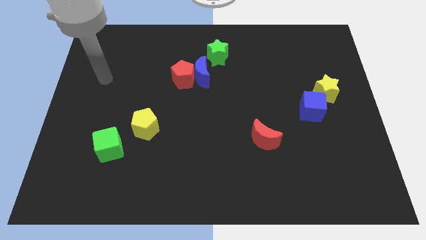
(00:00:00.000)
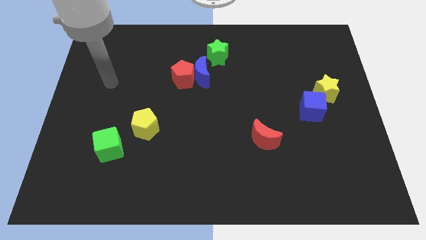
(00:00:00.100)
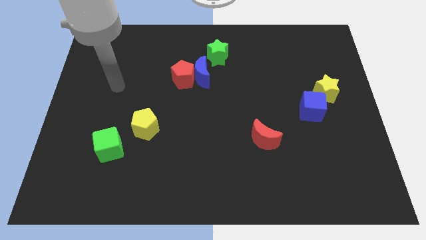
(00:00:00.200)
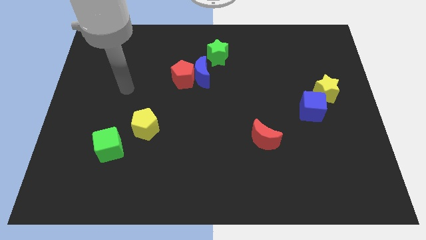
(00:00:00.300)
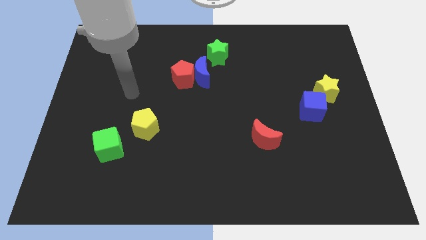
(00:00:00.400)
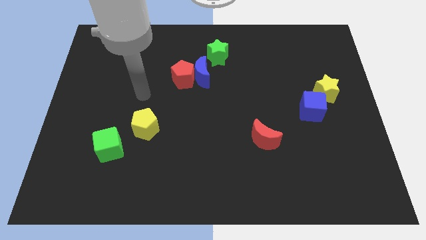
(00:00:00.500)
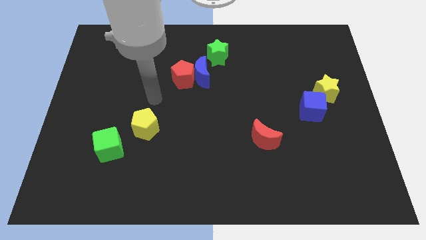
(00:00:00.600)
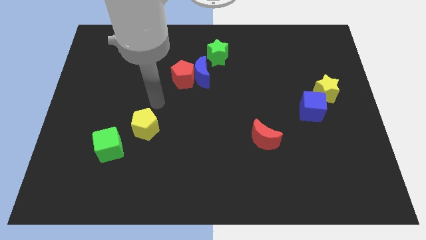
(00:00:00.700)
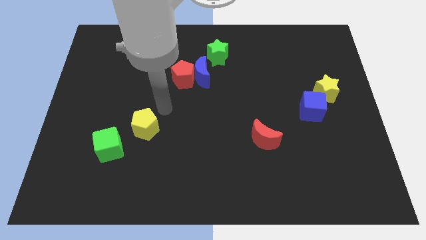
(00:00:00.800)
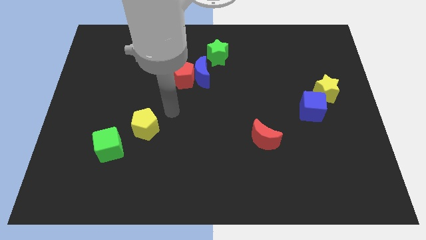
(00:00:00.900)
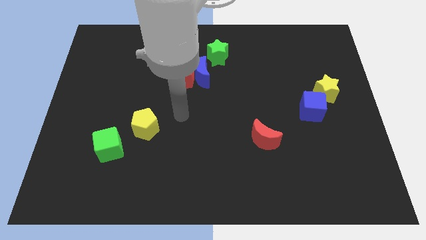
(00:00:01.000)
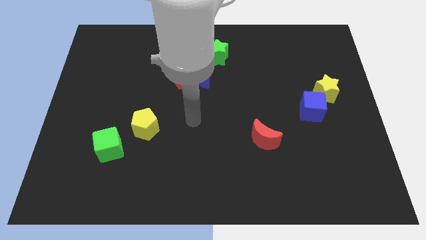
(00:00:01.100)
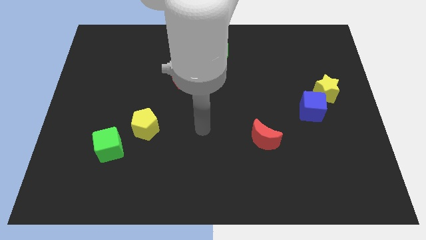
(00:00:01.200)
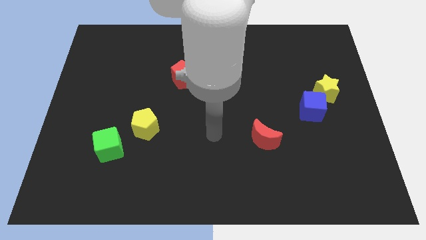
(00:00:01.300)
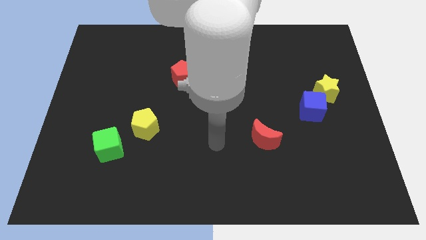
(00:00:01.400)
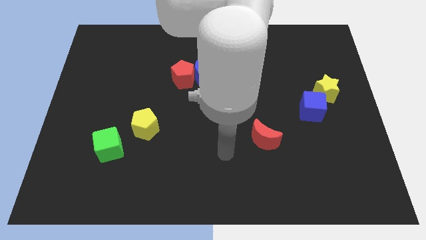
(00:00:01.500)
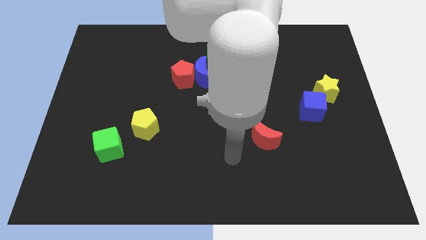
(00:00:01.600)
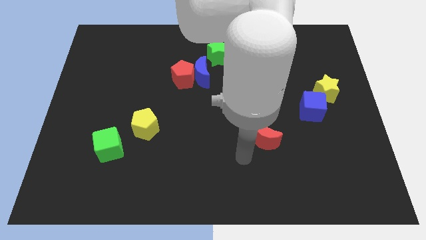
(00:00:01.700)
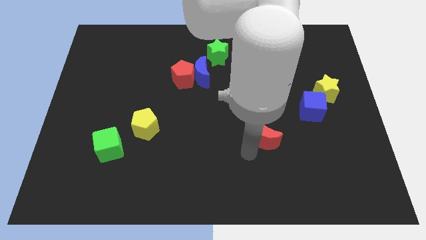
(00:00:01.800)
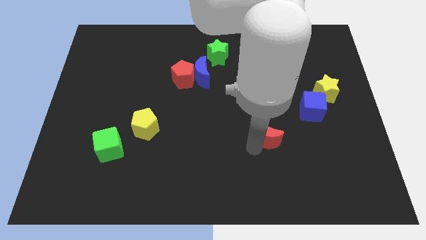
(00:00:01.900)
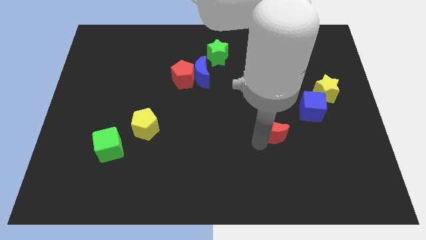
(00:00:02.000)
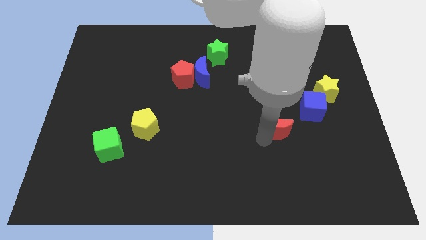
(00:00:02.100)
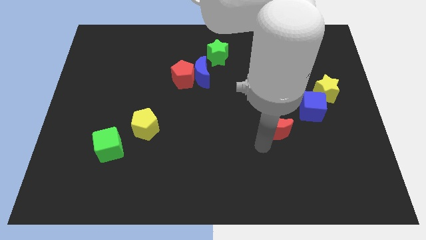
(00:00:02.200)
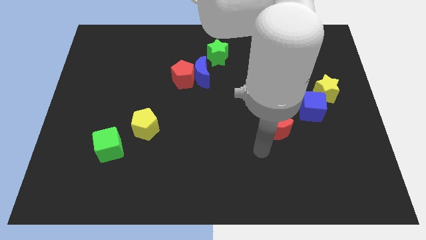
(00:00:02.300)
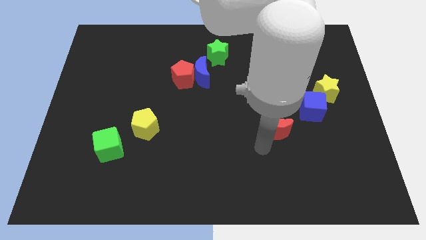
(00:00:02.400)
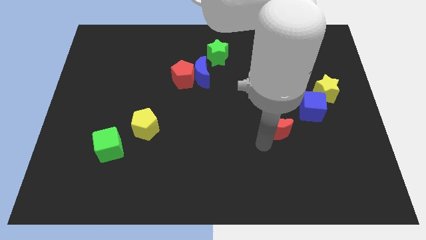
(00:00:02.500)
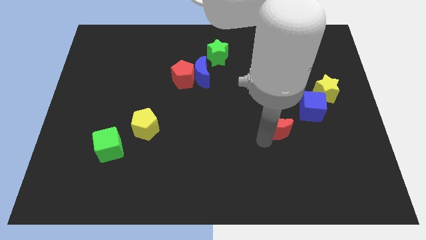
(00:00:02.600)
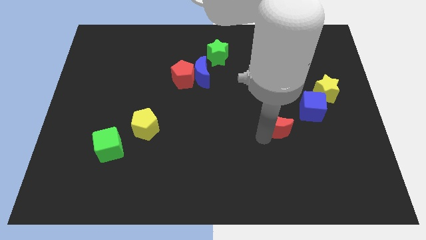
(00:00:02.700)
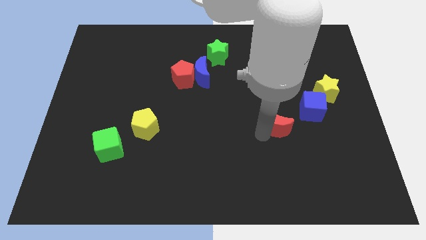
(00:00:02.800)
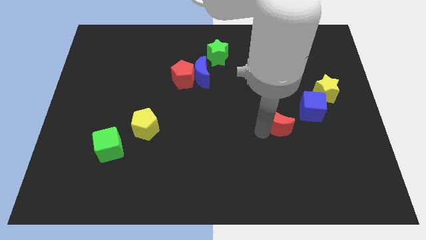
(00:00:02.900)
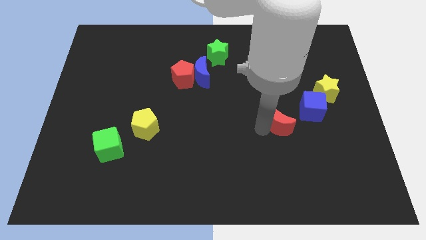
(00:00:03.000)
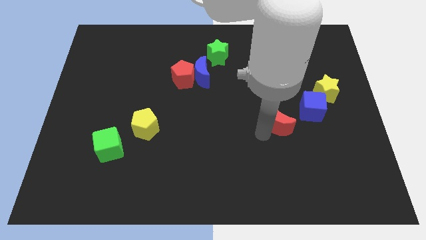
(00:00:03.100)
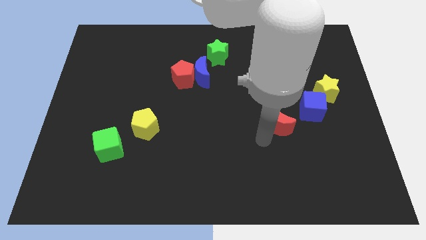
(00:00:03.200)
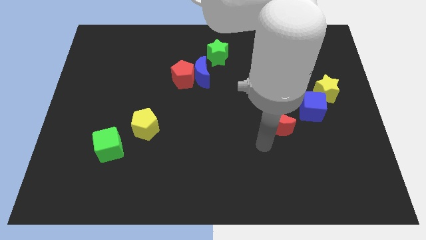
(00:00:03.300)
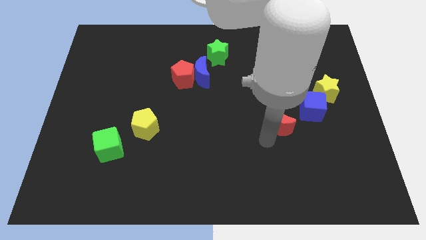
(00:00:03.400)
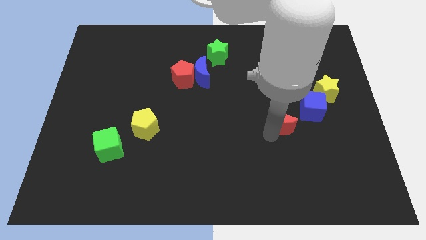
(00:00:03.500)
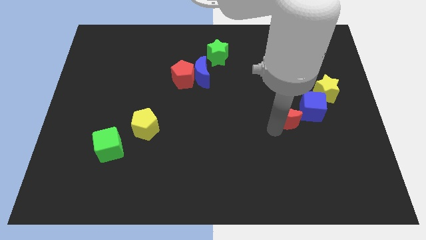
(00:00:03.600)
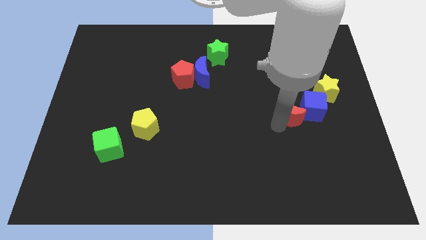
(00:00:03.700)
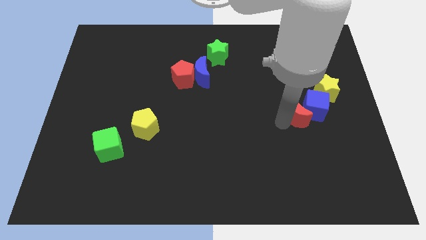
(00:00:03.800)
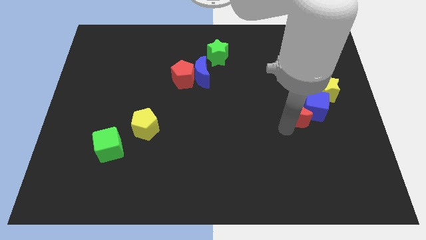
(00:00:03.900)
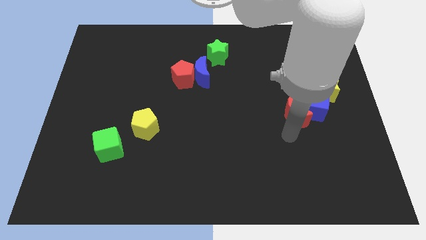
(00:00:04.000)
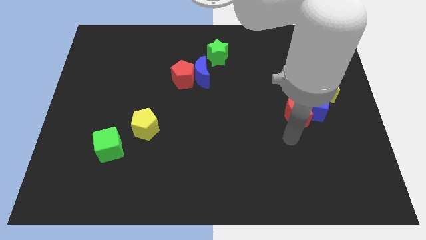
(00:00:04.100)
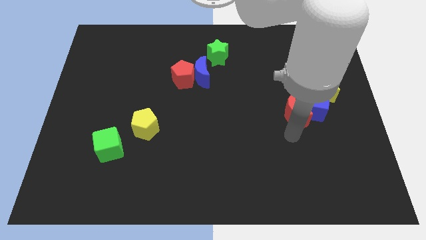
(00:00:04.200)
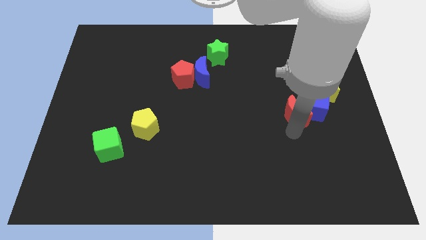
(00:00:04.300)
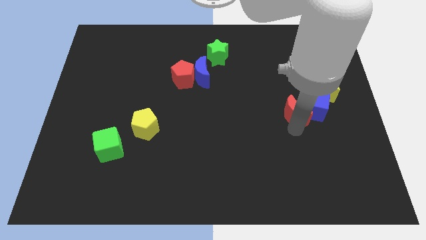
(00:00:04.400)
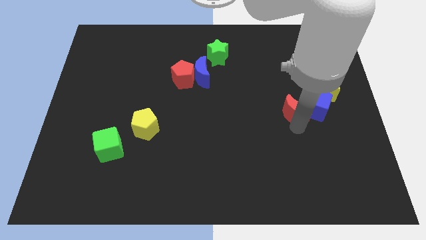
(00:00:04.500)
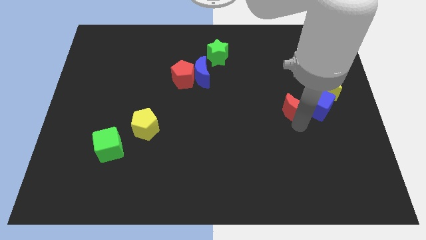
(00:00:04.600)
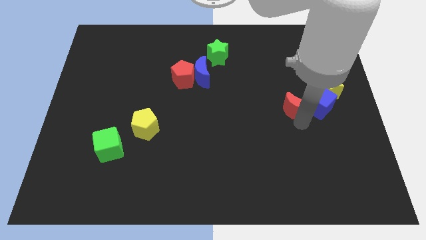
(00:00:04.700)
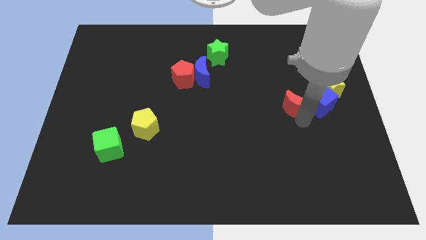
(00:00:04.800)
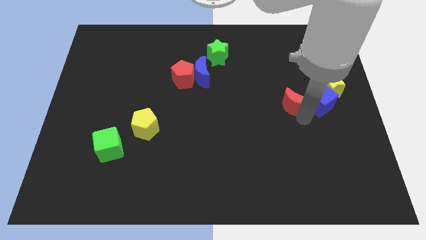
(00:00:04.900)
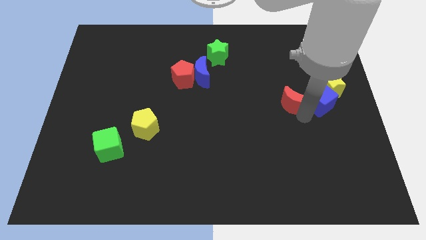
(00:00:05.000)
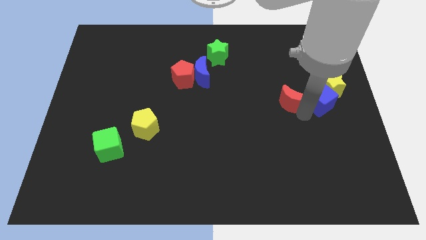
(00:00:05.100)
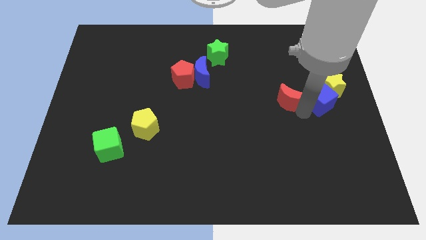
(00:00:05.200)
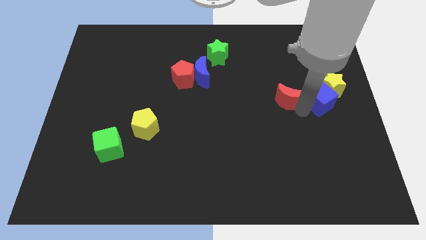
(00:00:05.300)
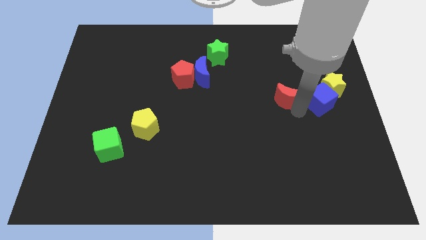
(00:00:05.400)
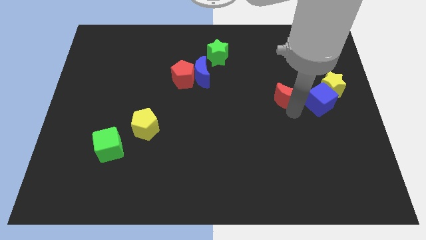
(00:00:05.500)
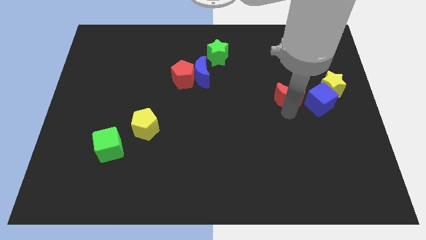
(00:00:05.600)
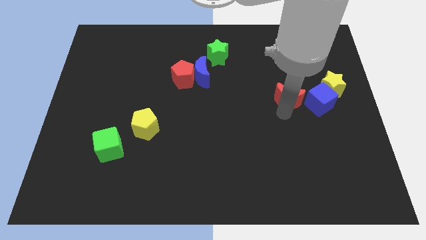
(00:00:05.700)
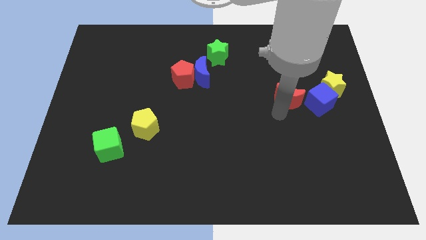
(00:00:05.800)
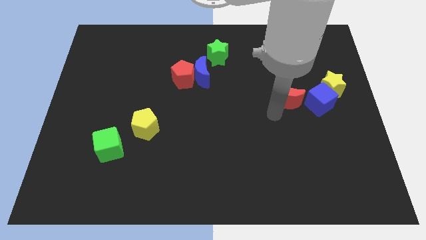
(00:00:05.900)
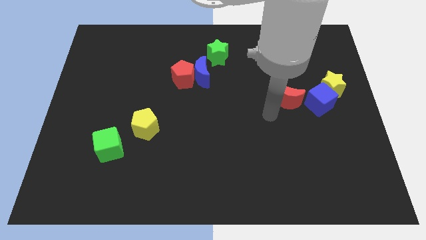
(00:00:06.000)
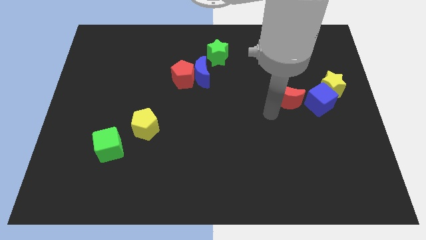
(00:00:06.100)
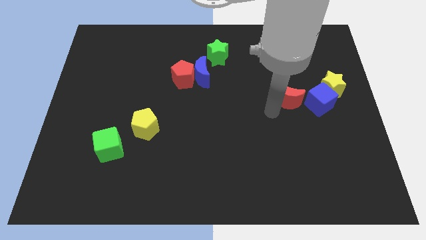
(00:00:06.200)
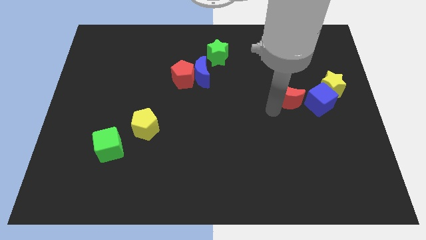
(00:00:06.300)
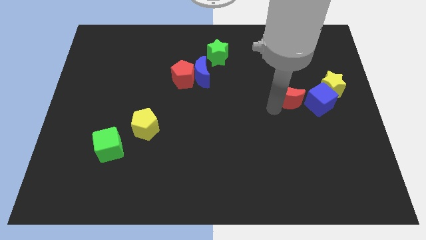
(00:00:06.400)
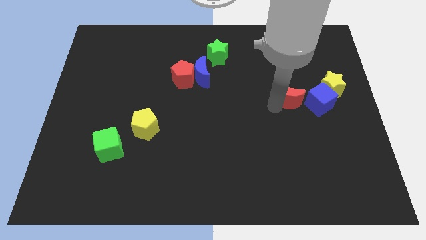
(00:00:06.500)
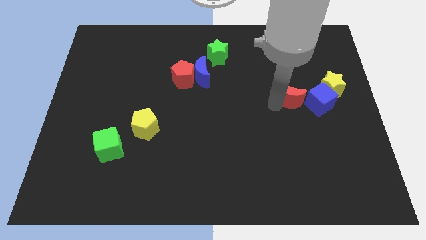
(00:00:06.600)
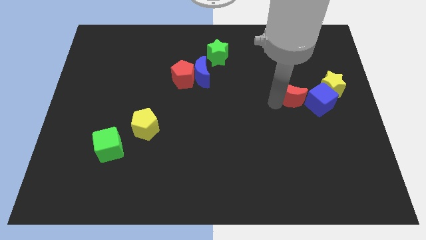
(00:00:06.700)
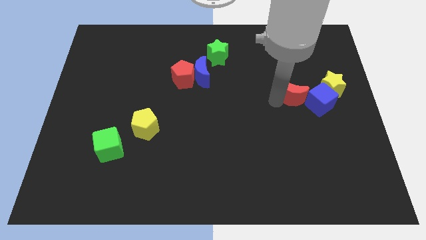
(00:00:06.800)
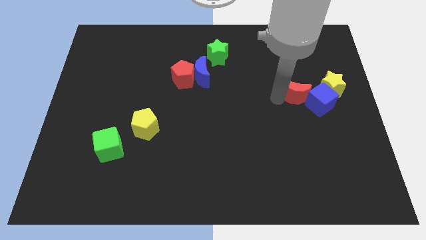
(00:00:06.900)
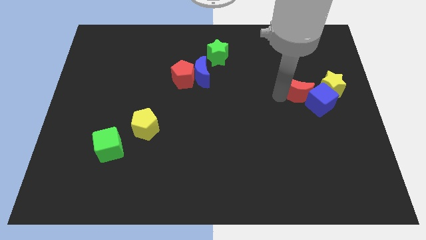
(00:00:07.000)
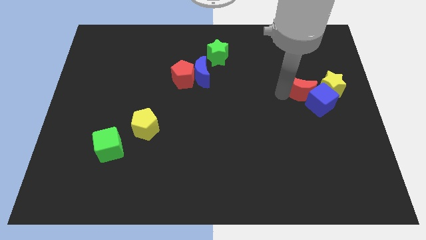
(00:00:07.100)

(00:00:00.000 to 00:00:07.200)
slide the red moon to the top side of the blue cube
